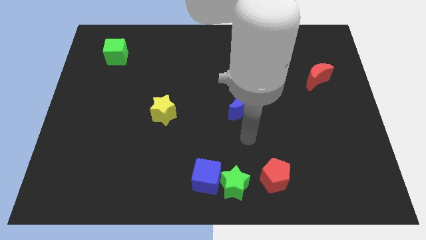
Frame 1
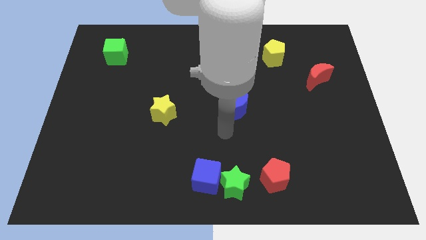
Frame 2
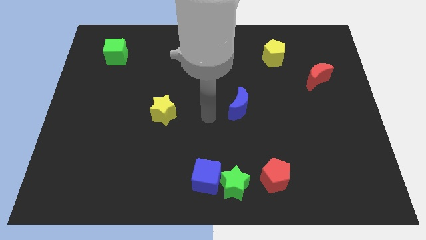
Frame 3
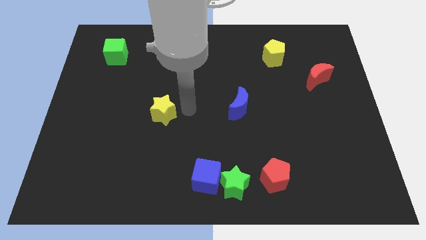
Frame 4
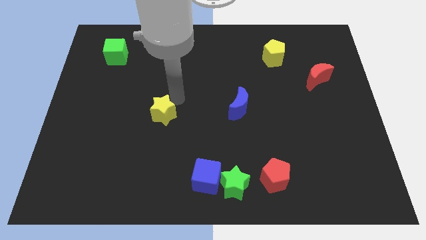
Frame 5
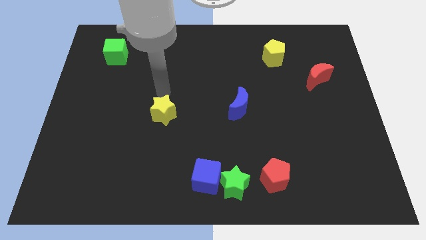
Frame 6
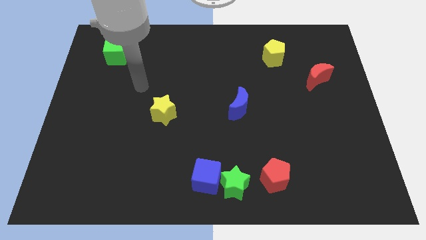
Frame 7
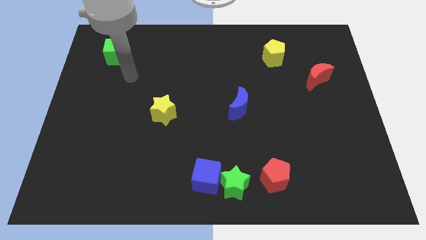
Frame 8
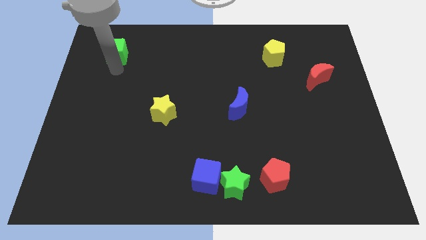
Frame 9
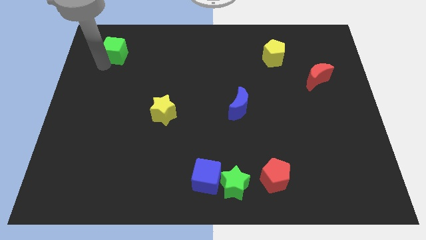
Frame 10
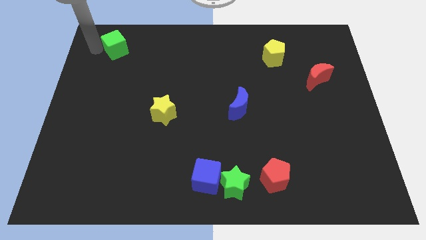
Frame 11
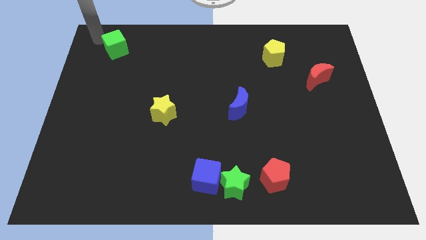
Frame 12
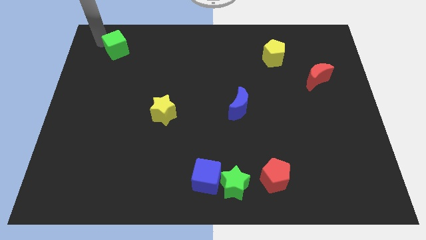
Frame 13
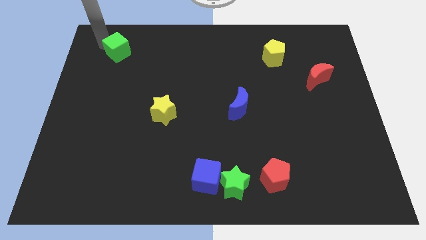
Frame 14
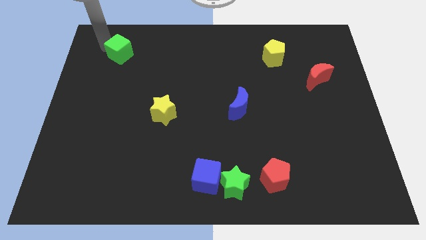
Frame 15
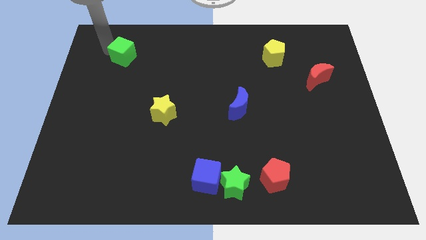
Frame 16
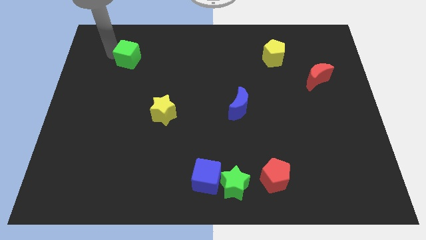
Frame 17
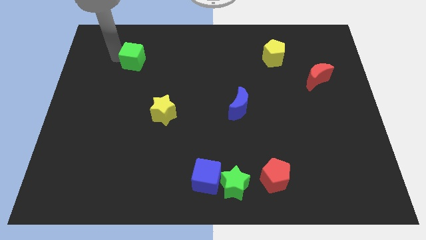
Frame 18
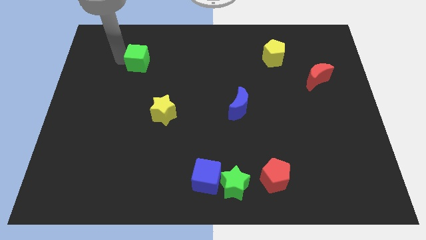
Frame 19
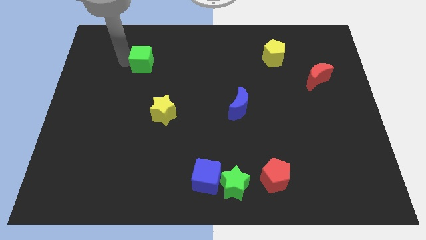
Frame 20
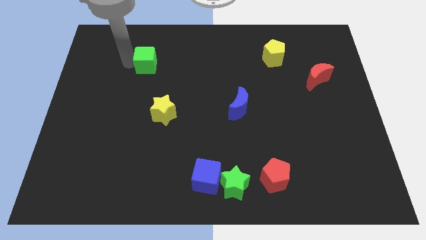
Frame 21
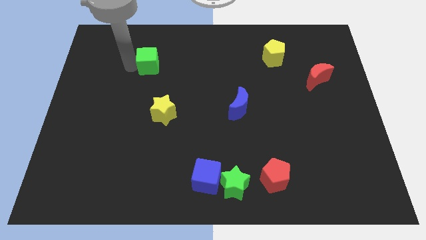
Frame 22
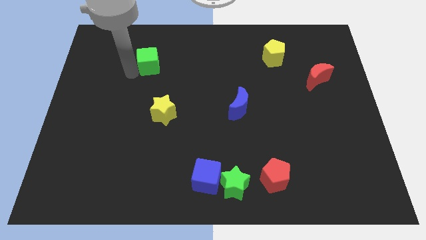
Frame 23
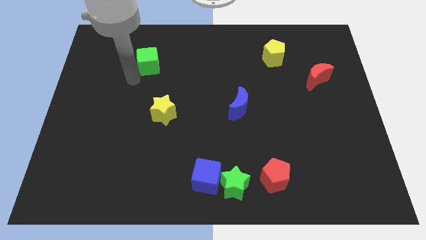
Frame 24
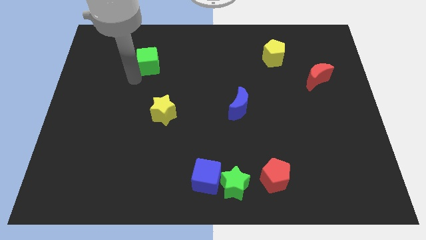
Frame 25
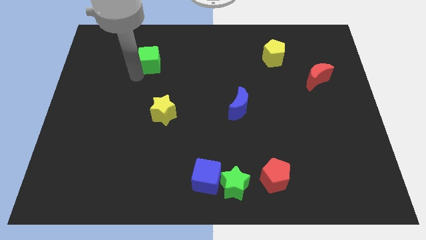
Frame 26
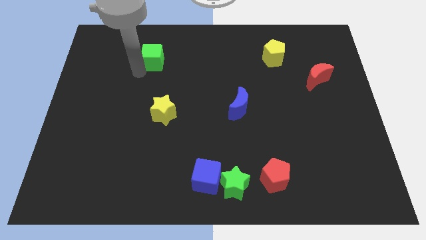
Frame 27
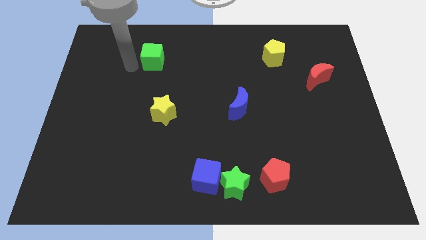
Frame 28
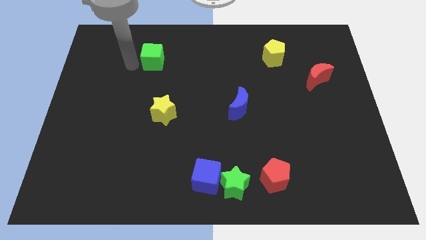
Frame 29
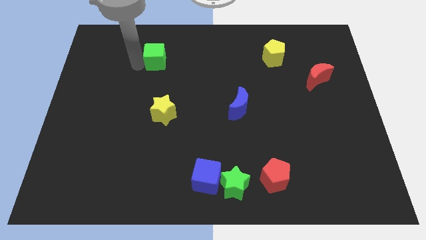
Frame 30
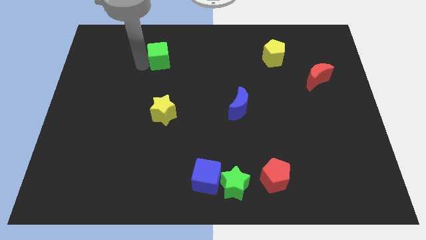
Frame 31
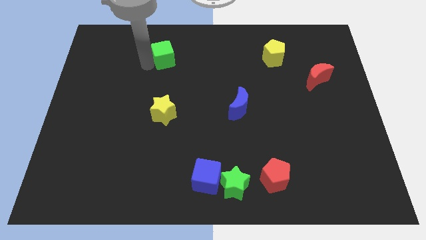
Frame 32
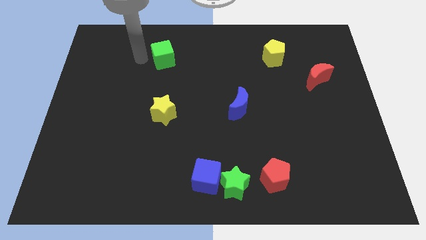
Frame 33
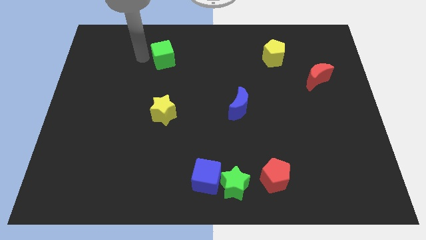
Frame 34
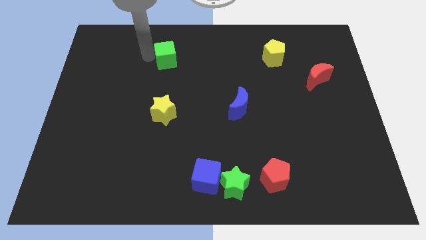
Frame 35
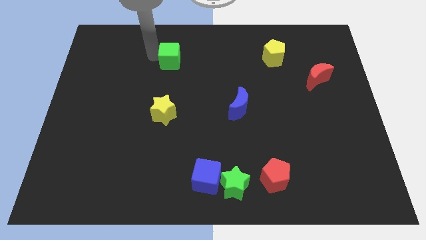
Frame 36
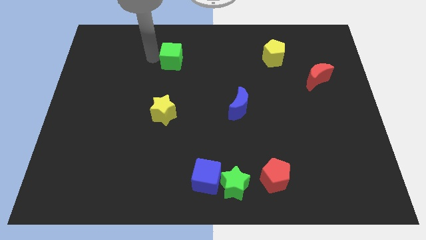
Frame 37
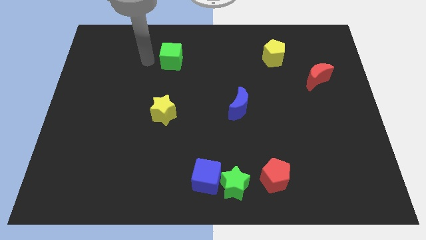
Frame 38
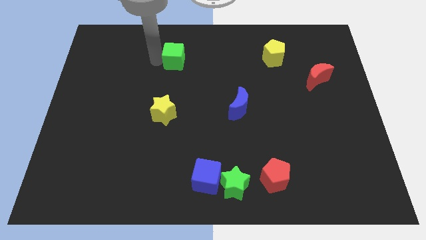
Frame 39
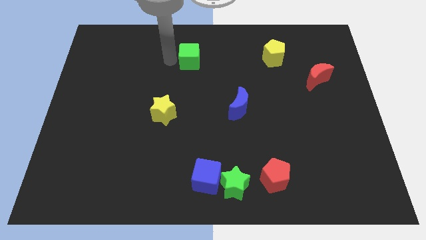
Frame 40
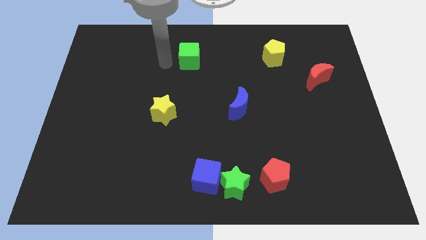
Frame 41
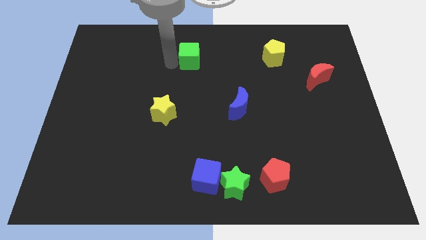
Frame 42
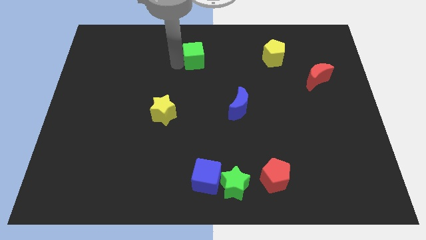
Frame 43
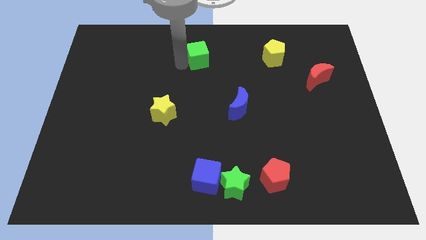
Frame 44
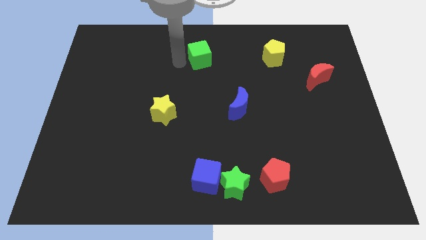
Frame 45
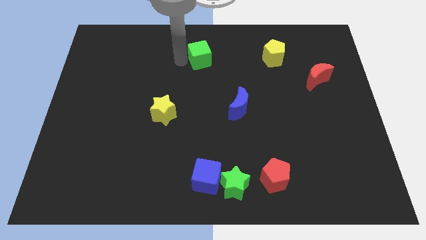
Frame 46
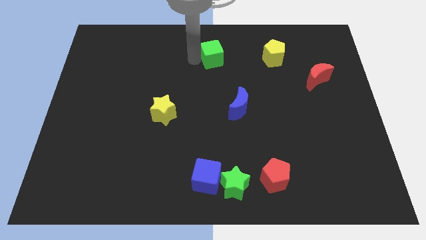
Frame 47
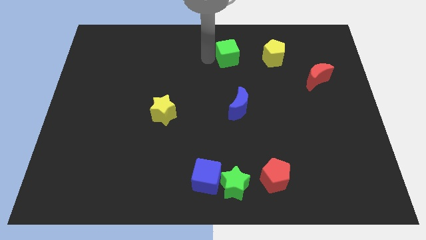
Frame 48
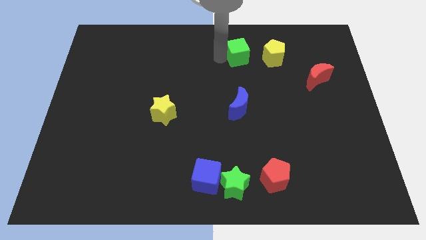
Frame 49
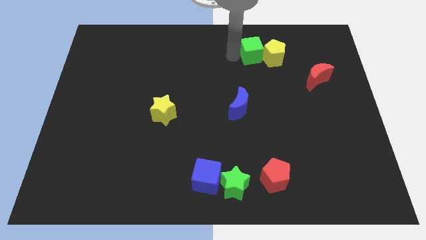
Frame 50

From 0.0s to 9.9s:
move the green cube to the yellow pentagon

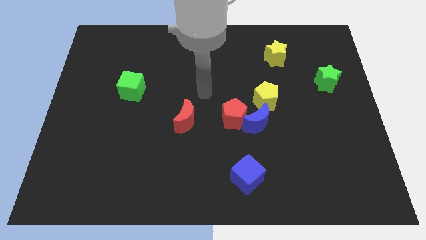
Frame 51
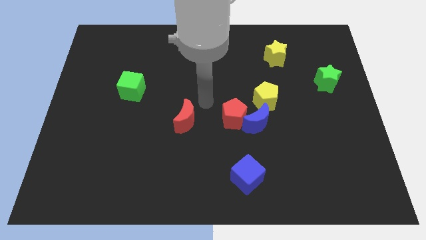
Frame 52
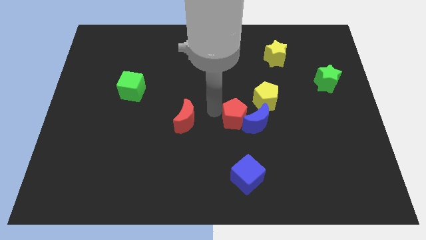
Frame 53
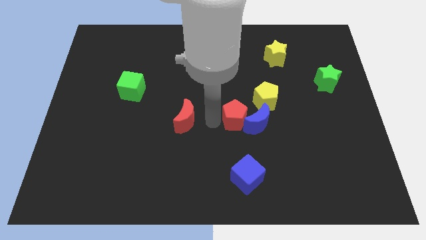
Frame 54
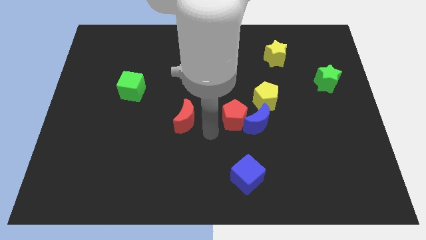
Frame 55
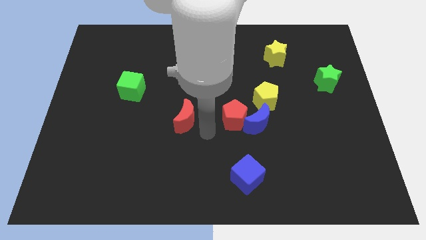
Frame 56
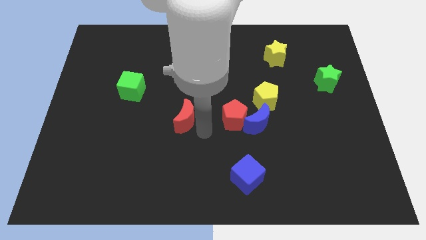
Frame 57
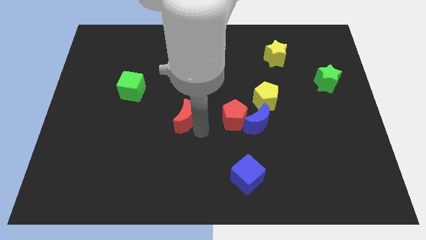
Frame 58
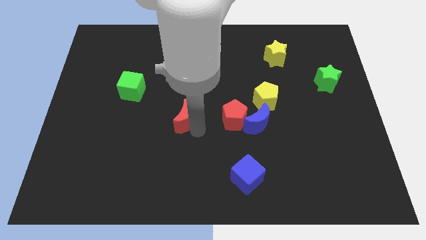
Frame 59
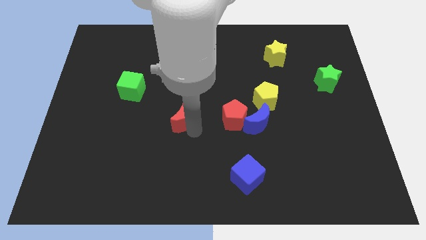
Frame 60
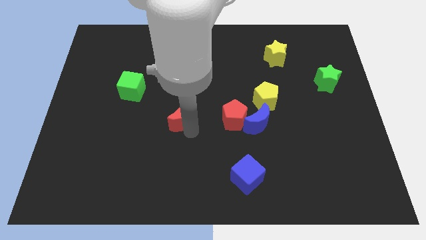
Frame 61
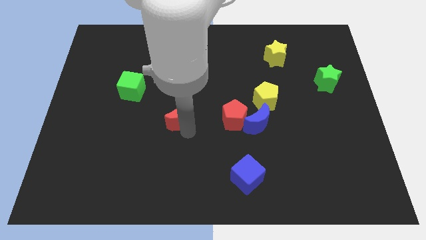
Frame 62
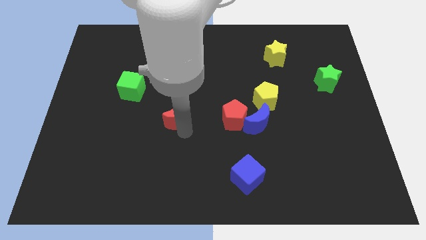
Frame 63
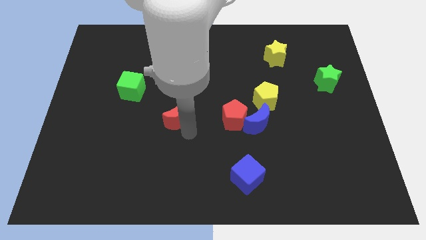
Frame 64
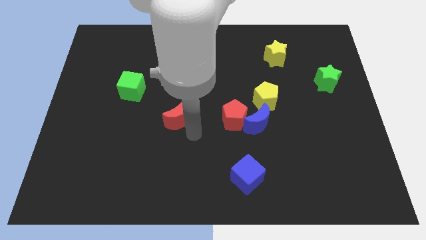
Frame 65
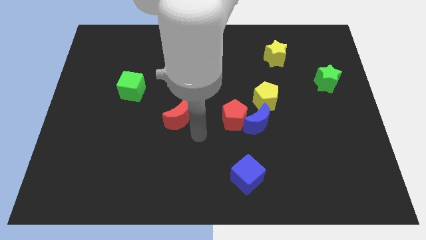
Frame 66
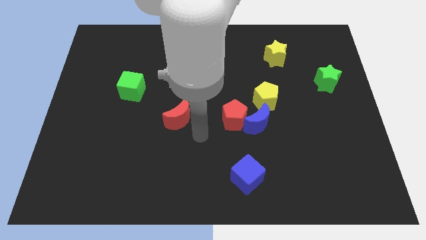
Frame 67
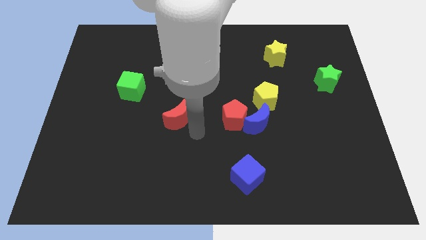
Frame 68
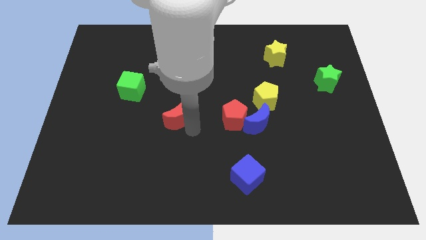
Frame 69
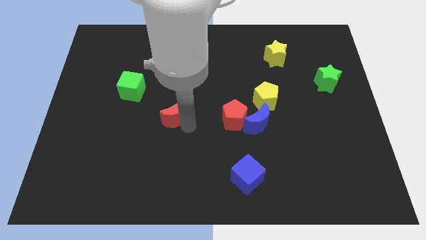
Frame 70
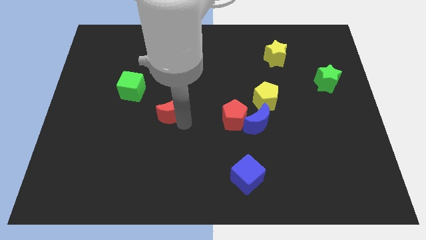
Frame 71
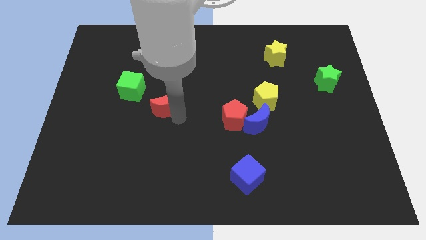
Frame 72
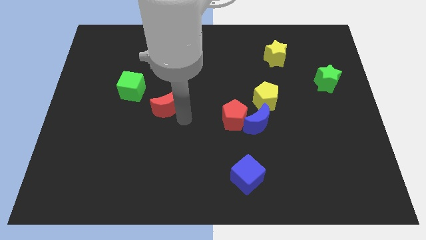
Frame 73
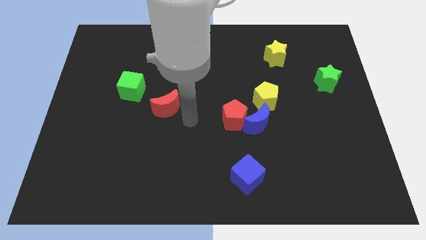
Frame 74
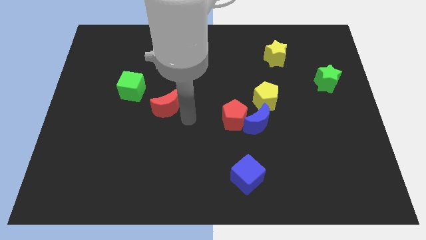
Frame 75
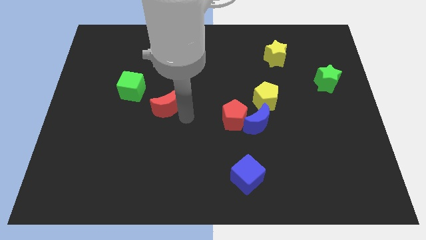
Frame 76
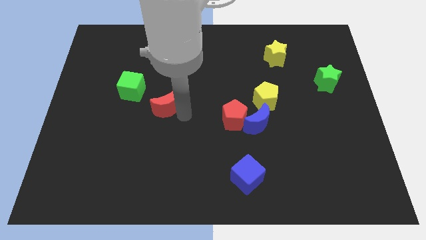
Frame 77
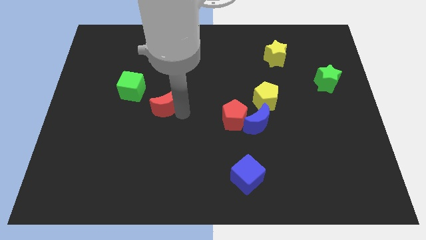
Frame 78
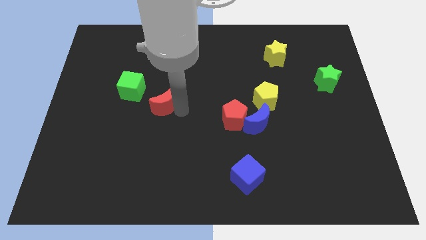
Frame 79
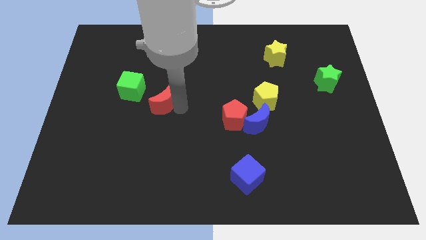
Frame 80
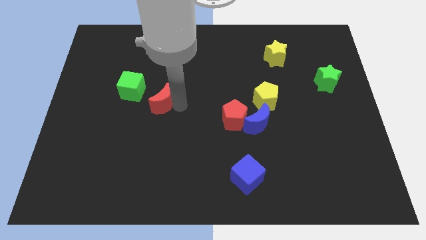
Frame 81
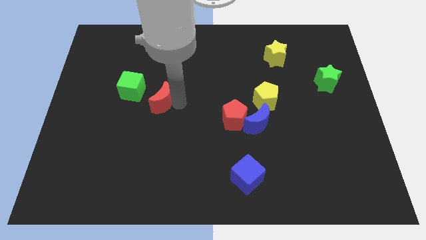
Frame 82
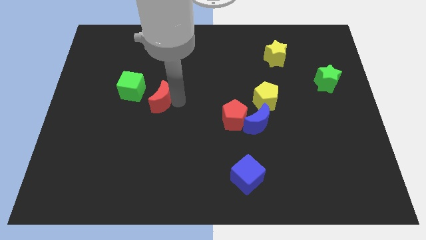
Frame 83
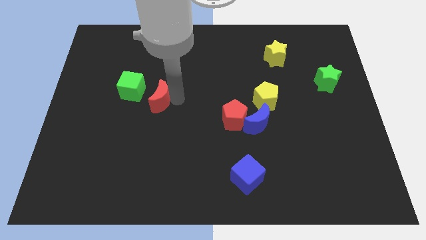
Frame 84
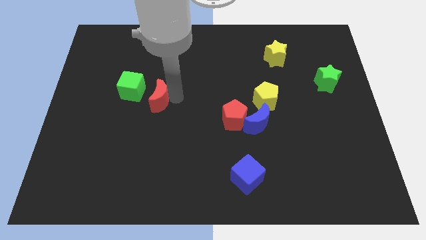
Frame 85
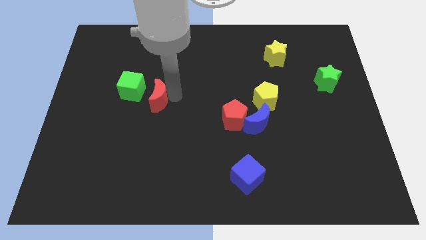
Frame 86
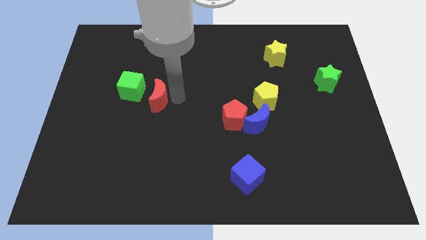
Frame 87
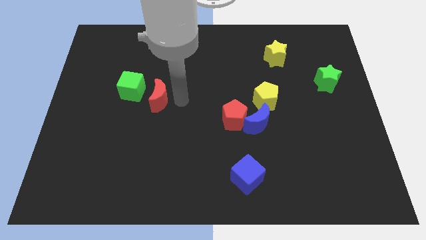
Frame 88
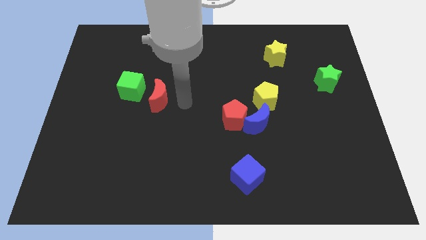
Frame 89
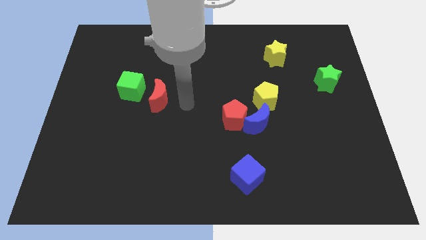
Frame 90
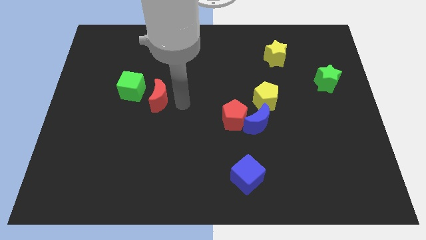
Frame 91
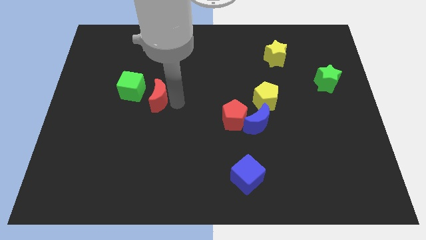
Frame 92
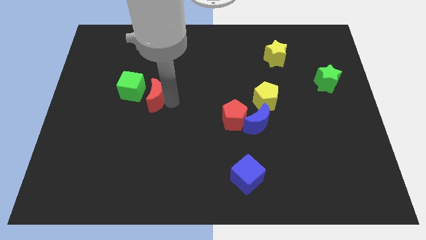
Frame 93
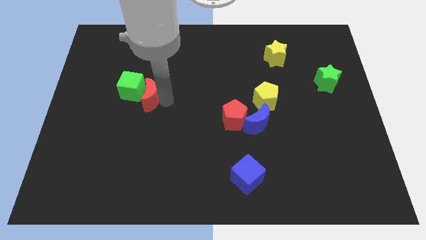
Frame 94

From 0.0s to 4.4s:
move the red moon to the green cube
